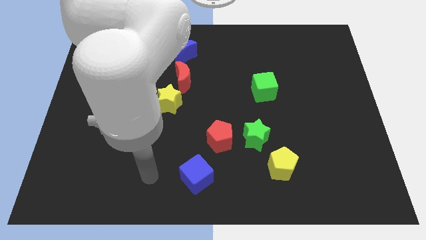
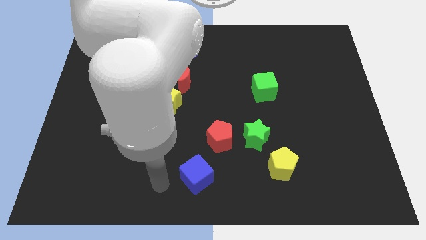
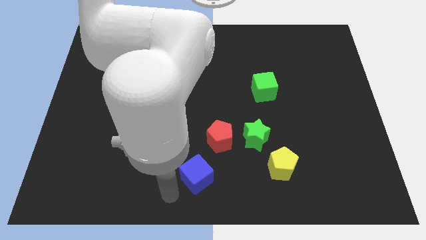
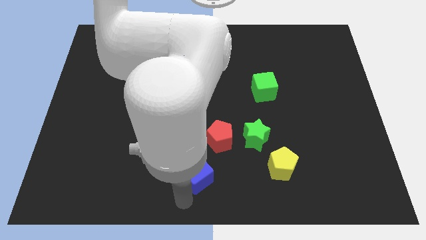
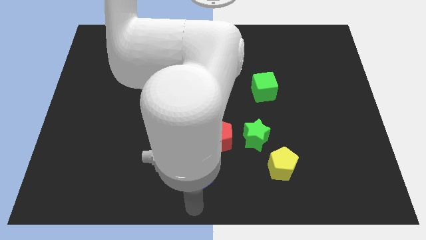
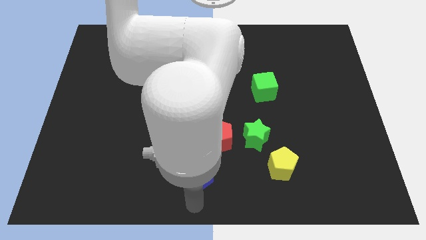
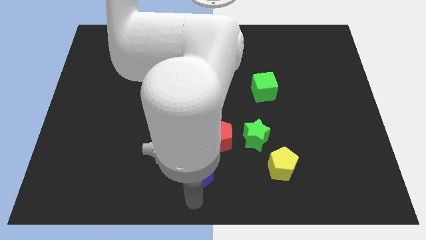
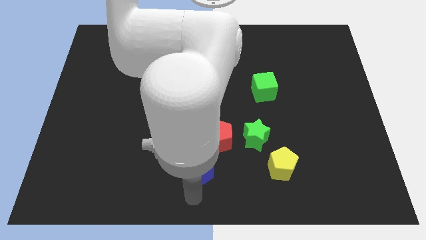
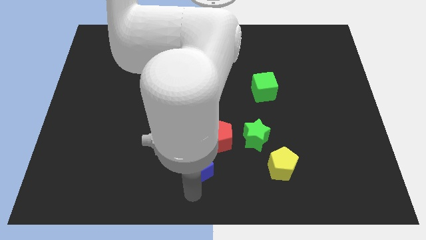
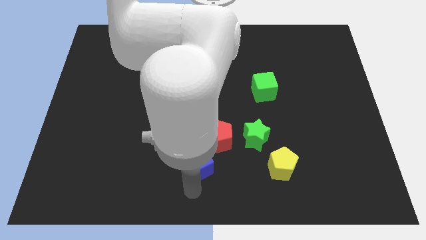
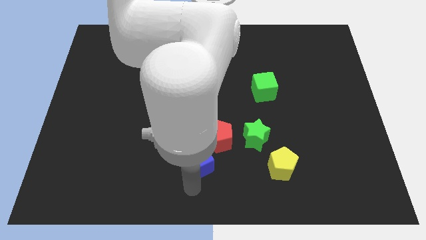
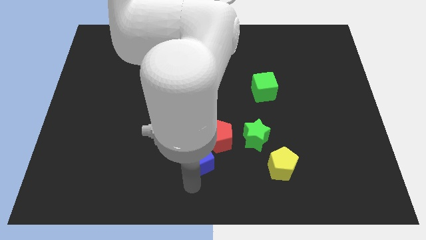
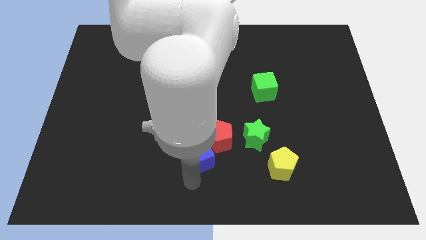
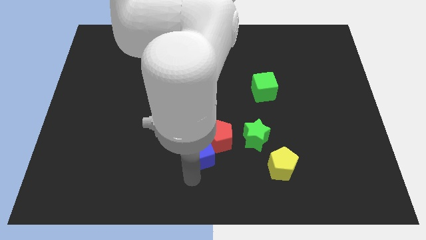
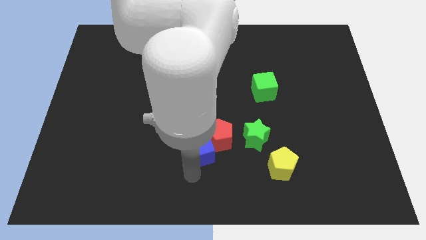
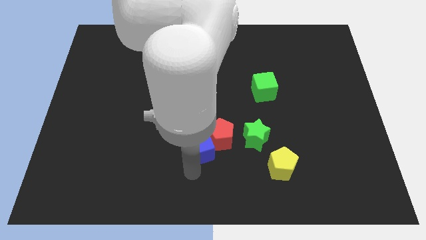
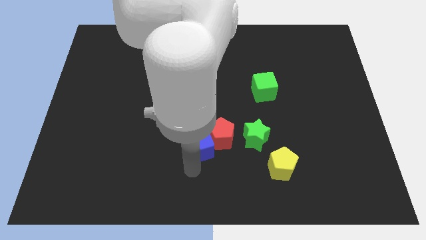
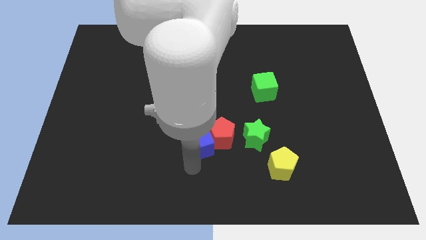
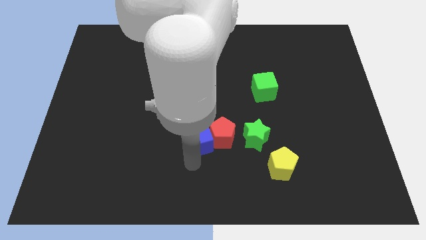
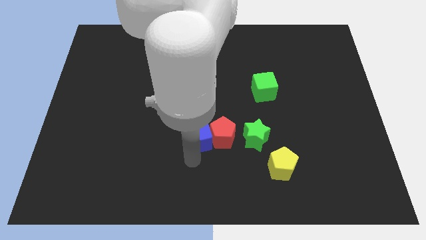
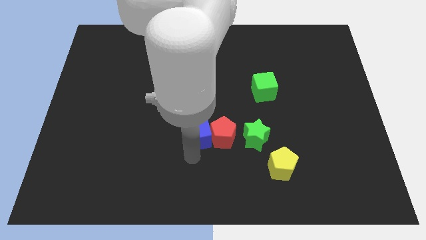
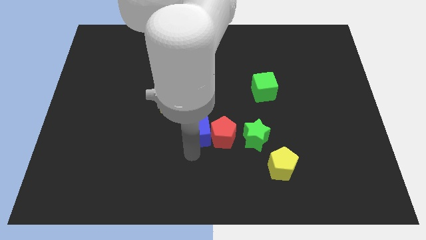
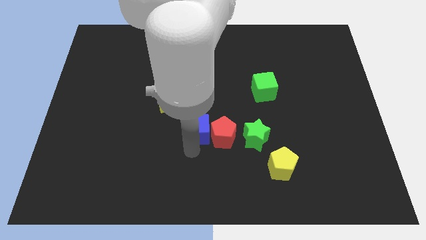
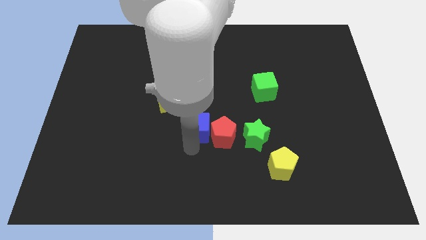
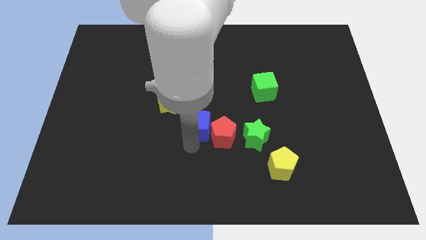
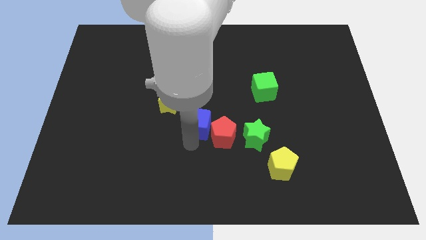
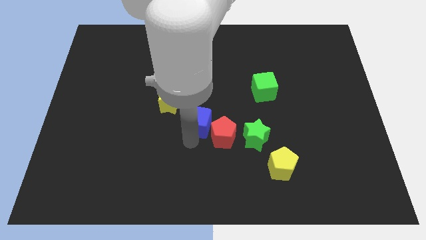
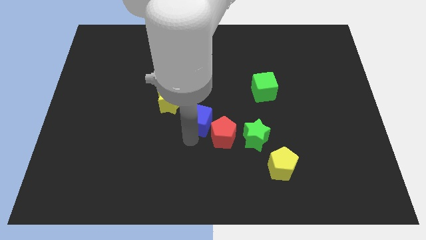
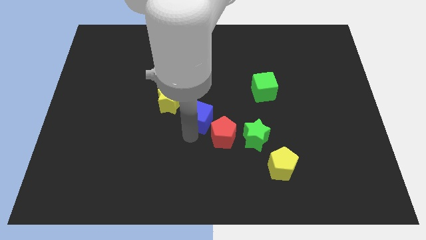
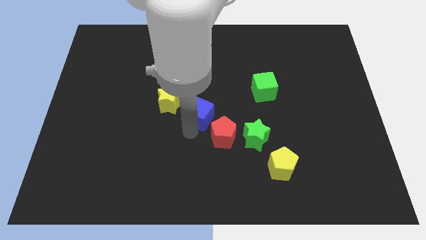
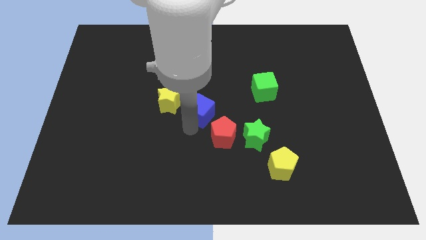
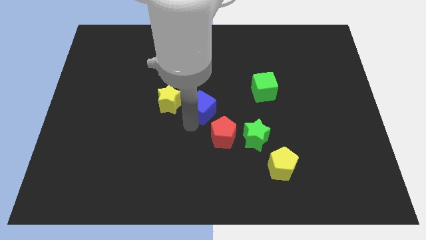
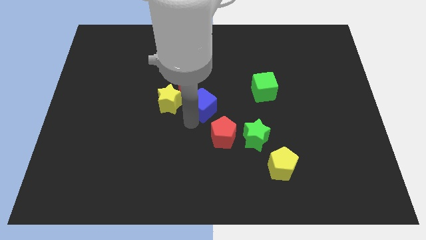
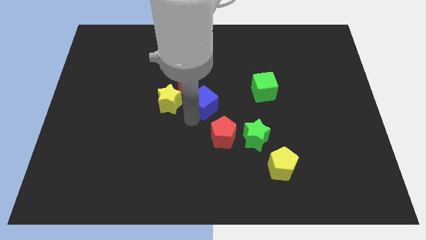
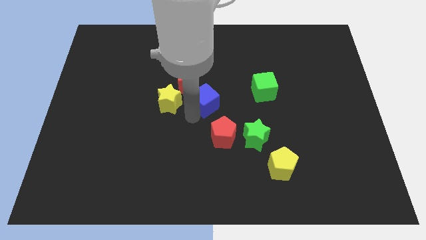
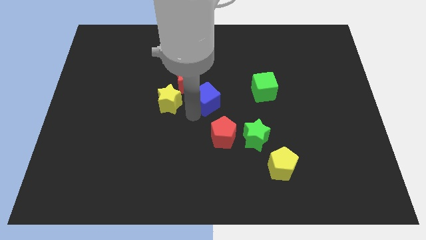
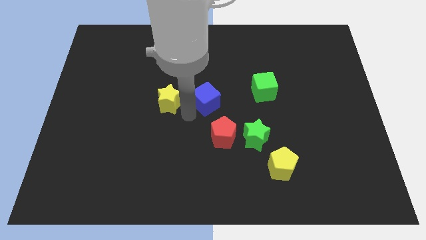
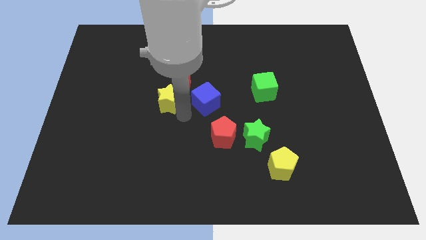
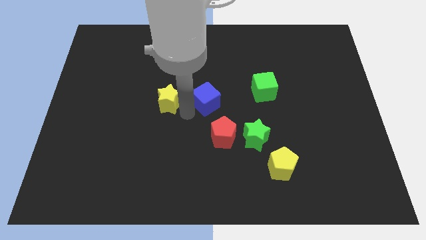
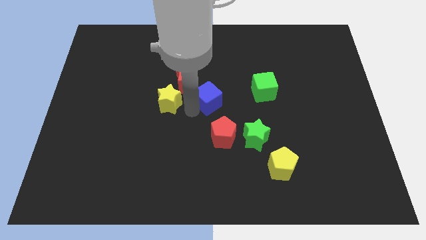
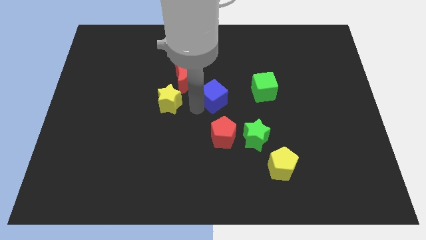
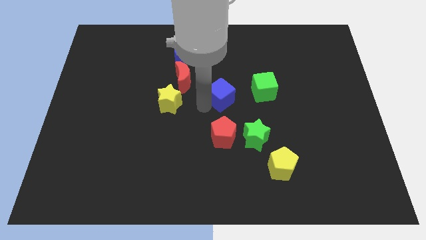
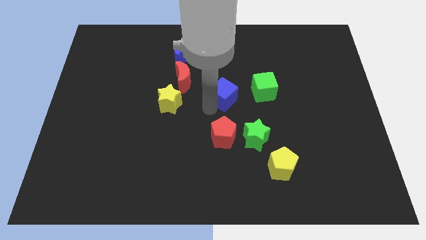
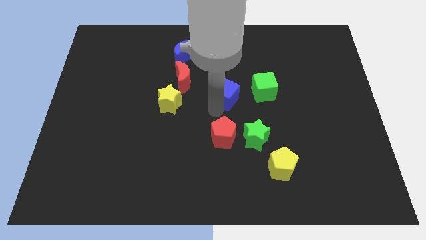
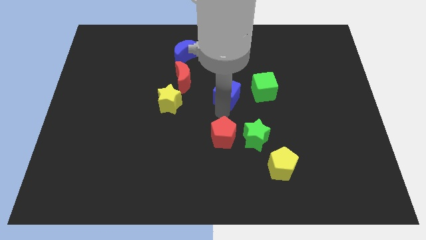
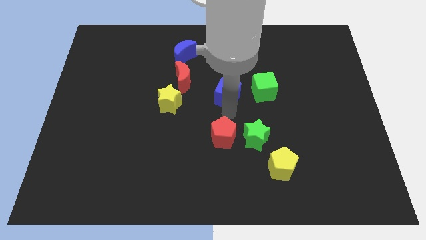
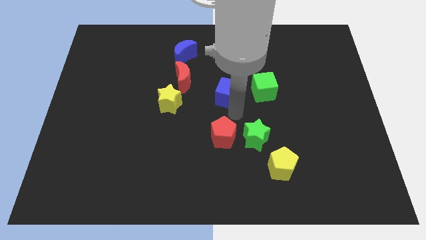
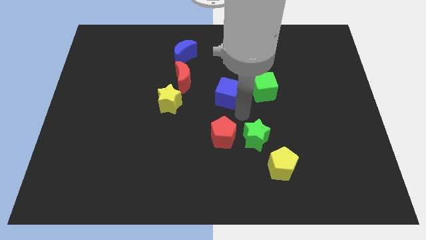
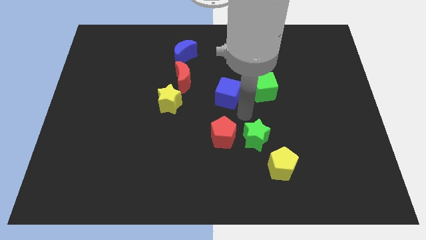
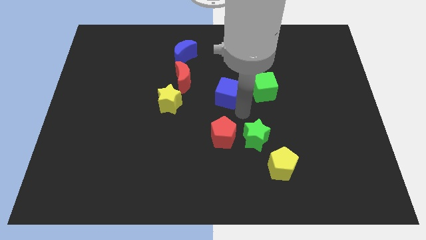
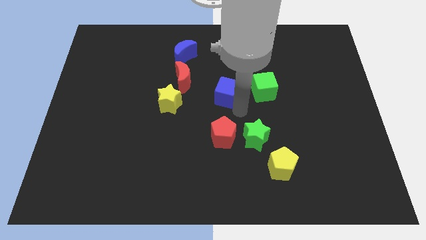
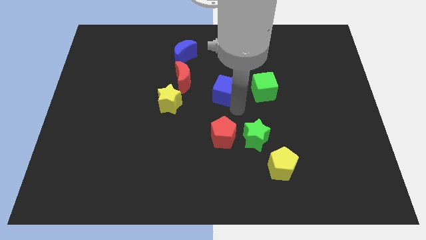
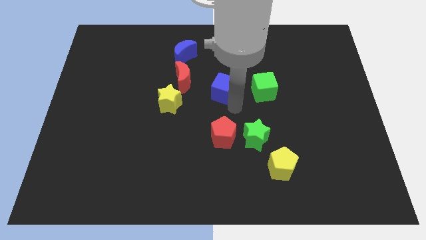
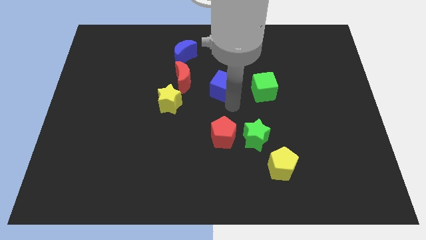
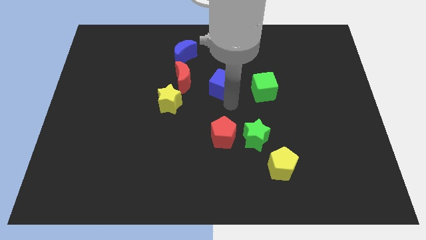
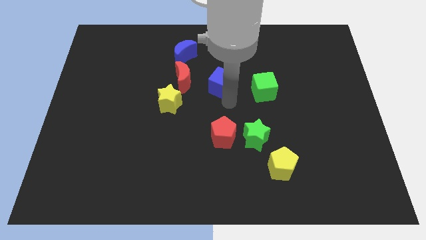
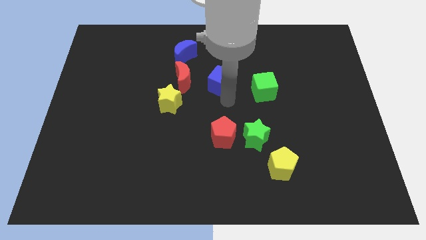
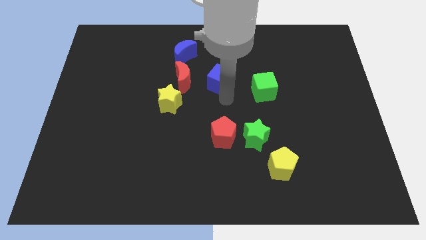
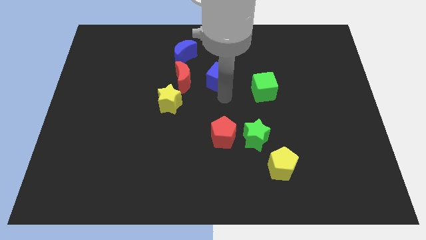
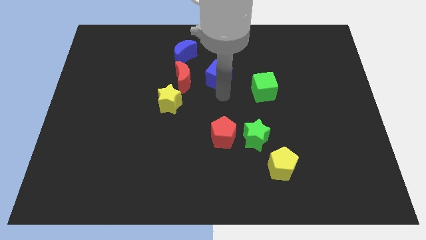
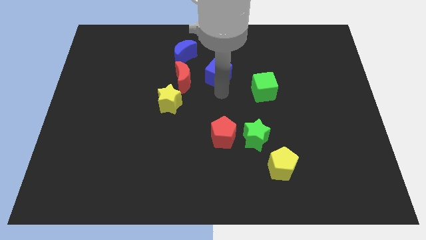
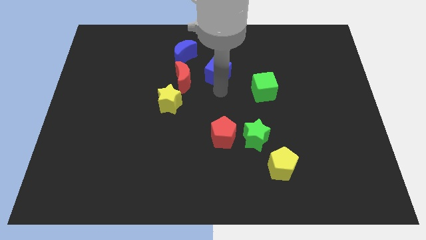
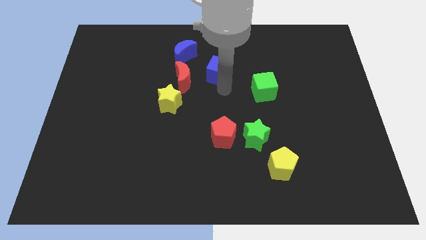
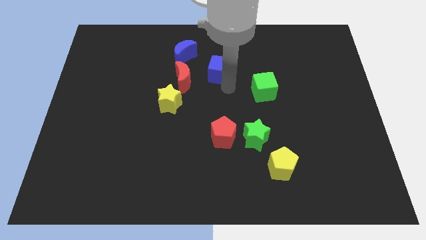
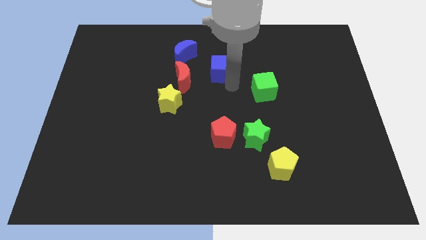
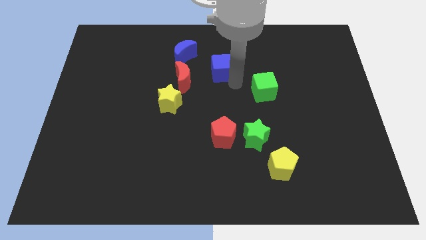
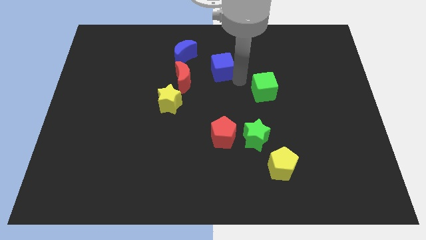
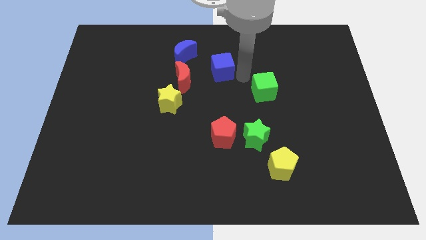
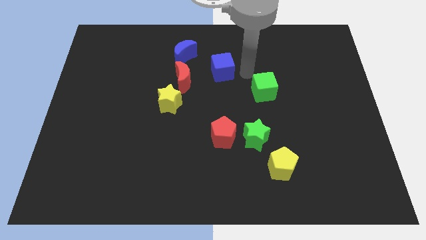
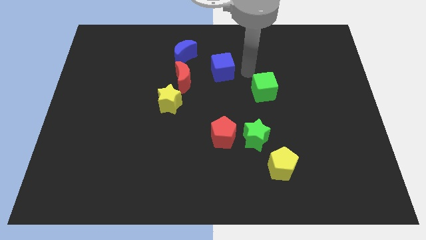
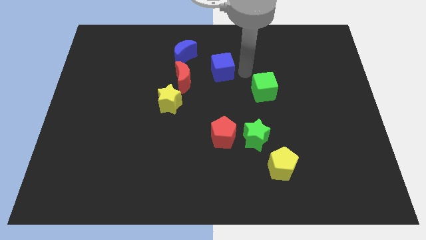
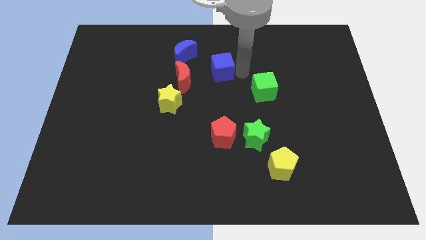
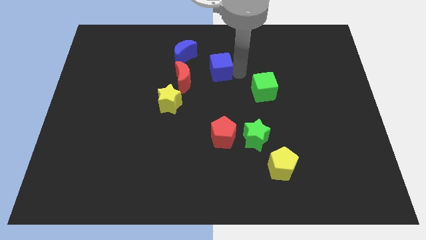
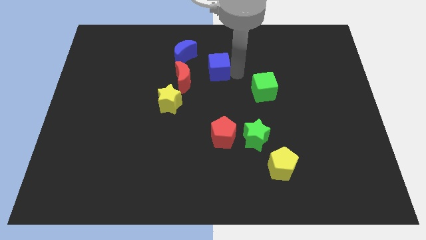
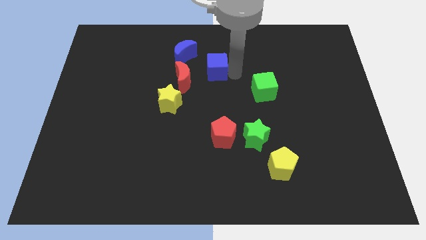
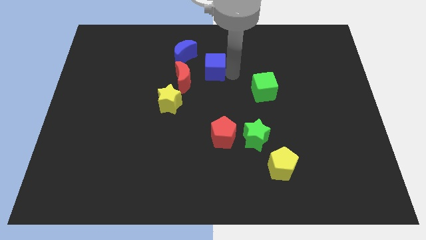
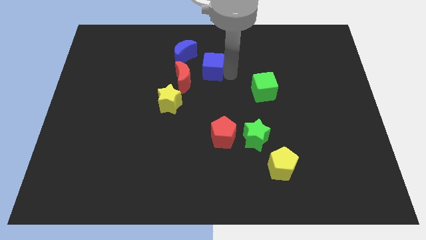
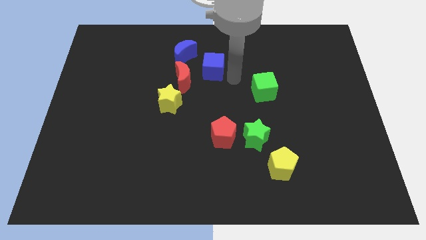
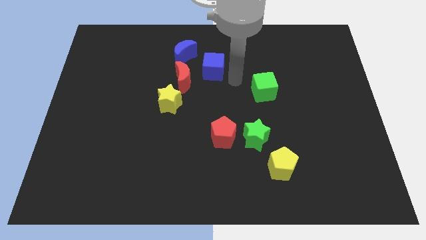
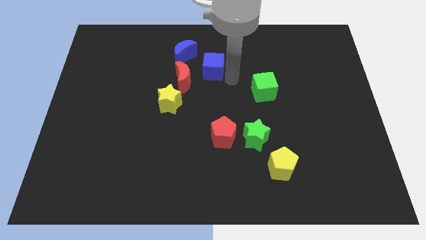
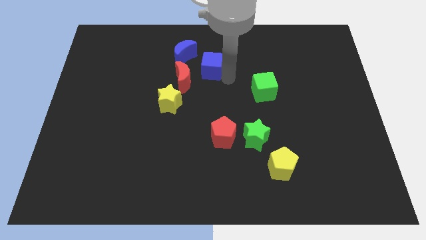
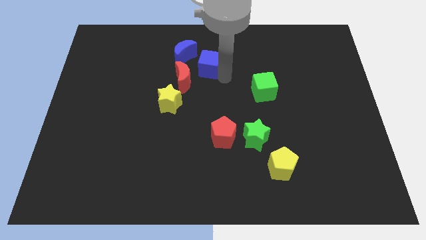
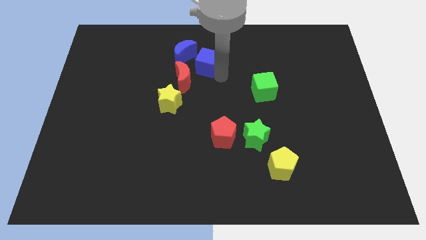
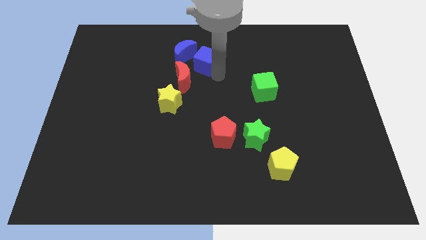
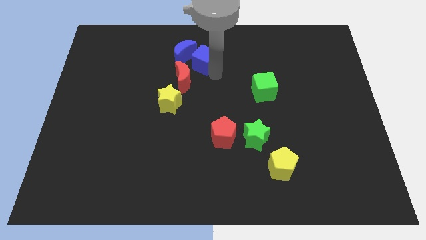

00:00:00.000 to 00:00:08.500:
push the blue cube close to the blue moon
